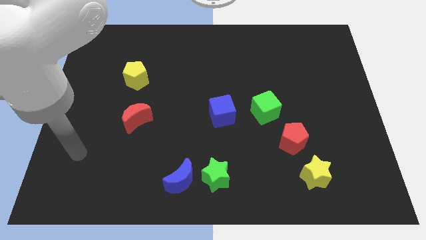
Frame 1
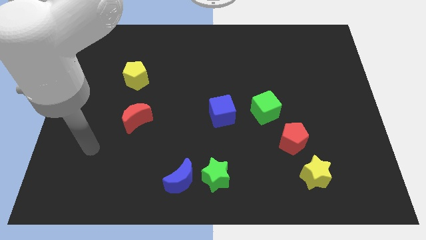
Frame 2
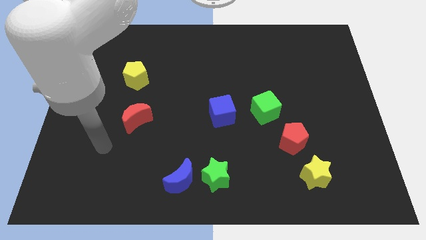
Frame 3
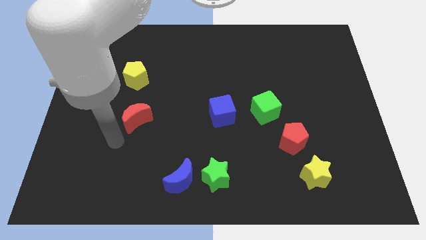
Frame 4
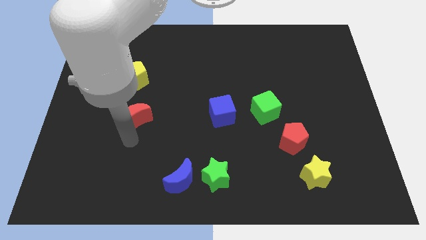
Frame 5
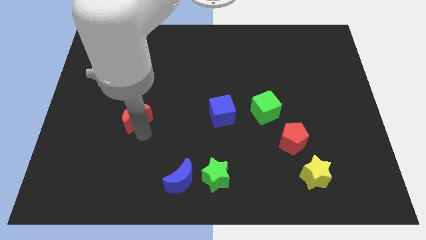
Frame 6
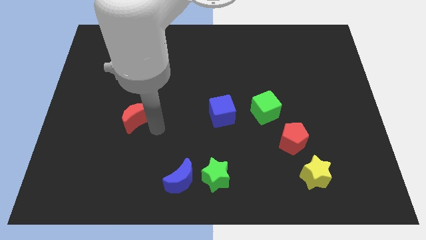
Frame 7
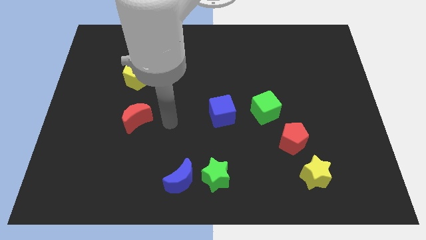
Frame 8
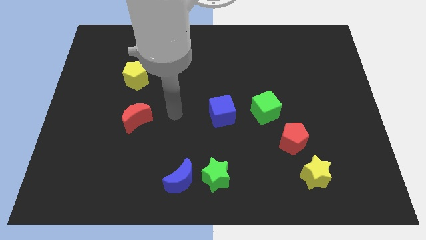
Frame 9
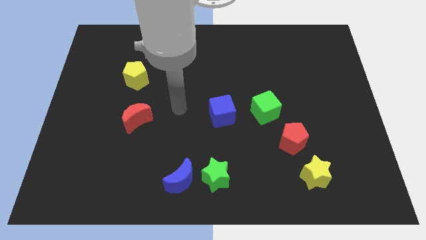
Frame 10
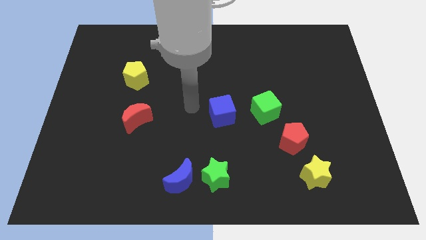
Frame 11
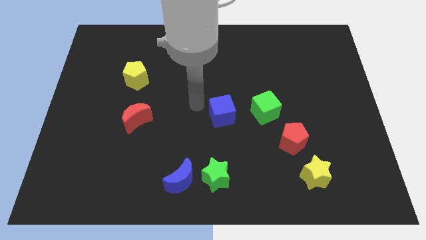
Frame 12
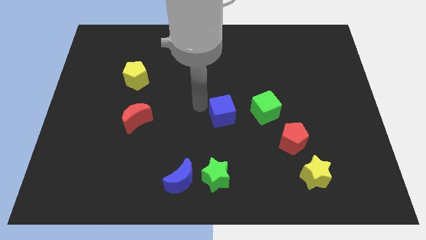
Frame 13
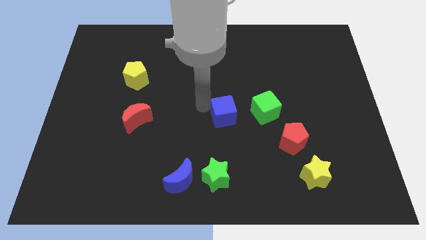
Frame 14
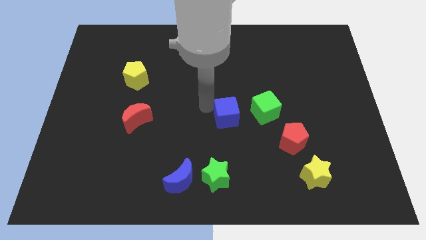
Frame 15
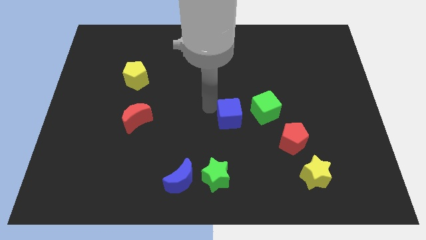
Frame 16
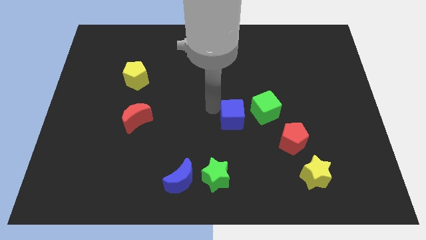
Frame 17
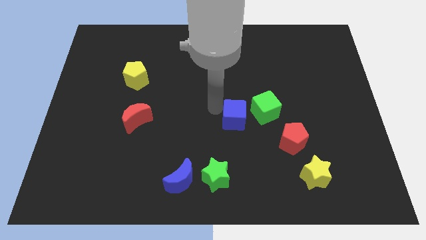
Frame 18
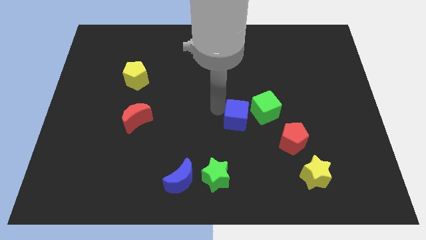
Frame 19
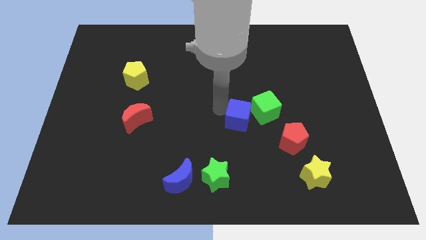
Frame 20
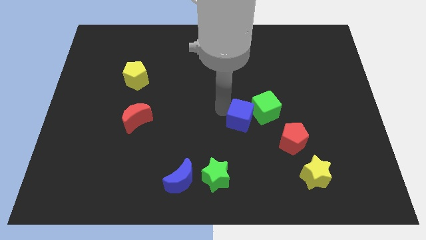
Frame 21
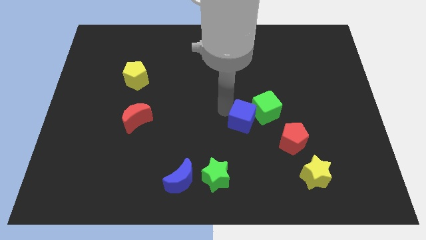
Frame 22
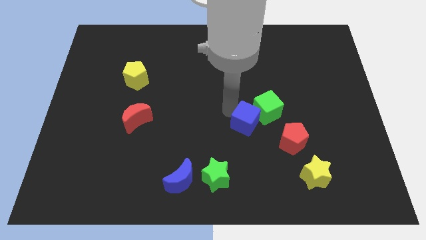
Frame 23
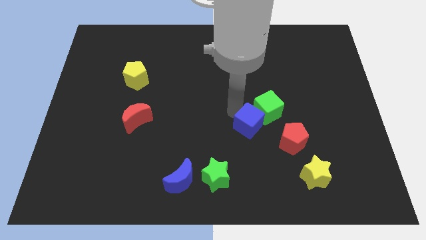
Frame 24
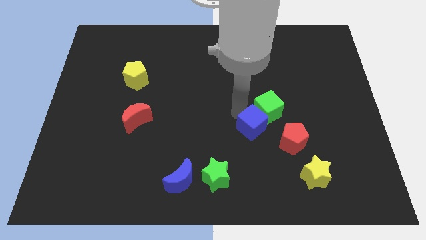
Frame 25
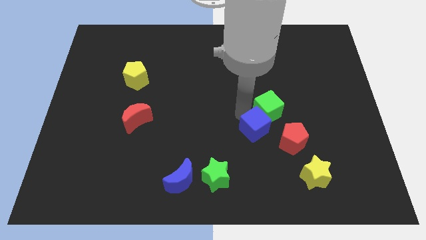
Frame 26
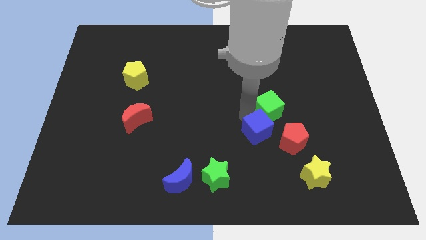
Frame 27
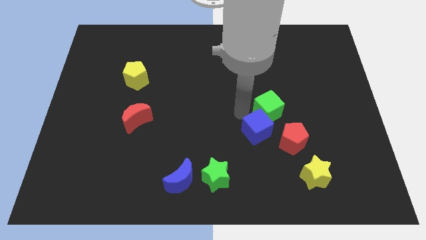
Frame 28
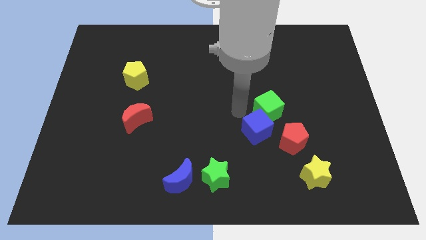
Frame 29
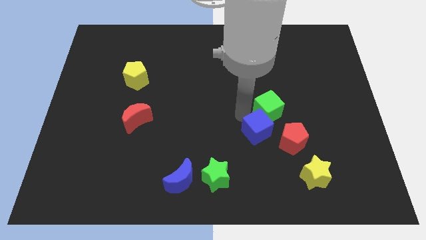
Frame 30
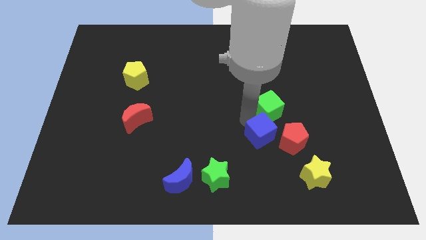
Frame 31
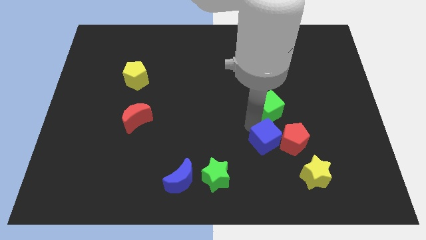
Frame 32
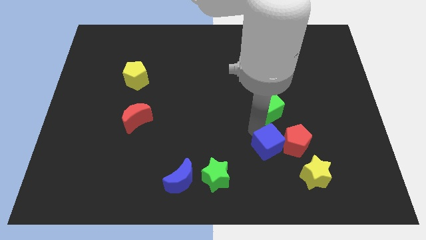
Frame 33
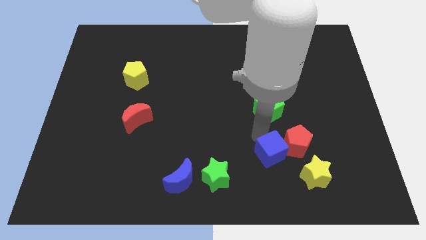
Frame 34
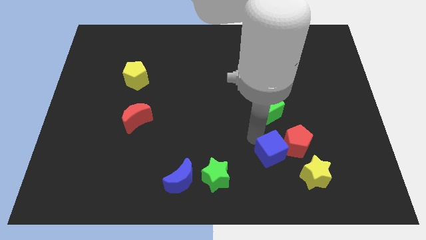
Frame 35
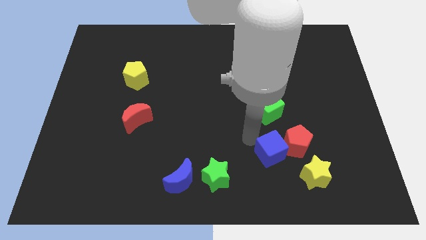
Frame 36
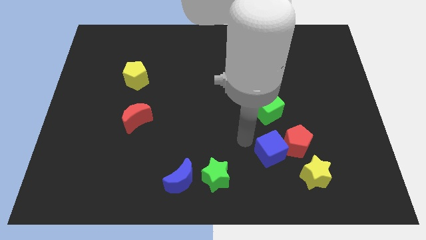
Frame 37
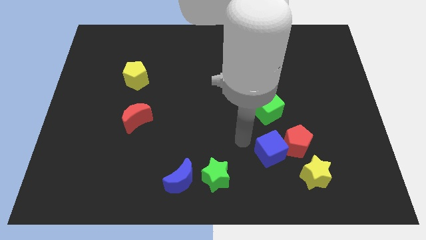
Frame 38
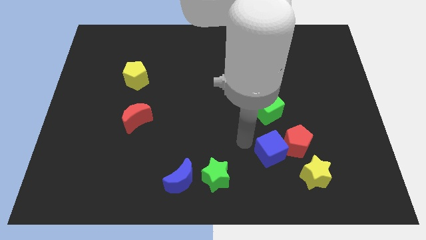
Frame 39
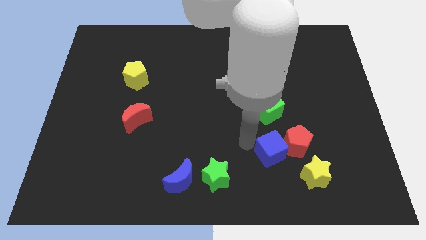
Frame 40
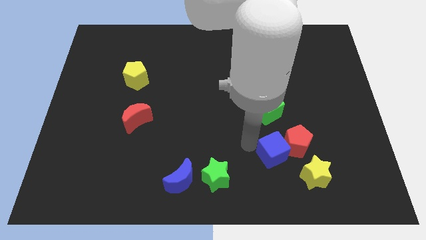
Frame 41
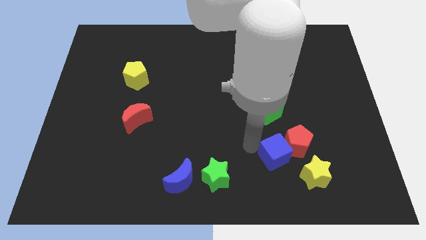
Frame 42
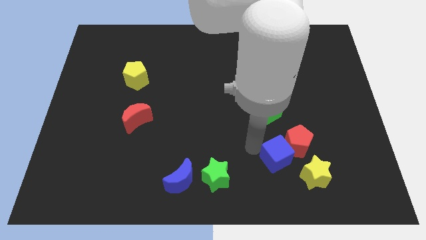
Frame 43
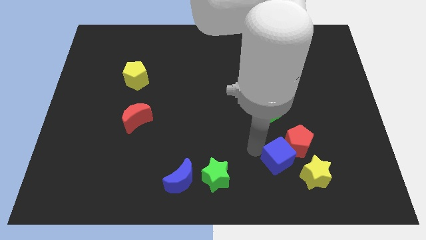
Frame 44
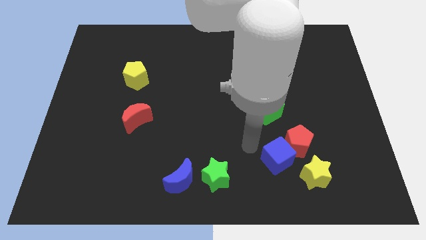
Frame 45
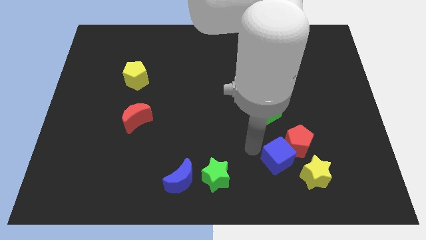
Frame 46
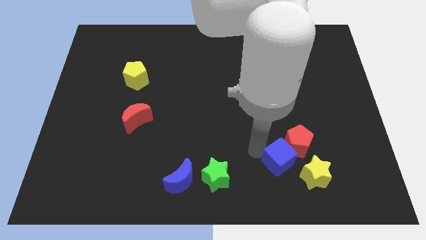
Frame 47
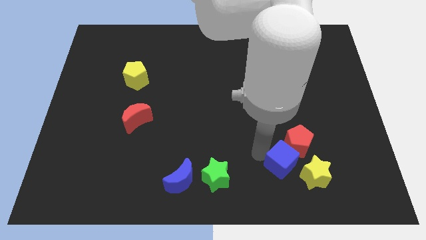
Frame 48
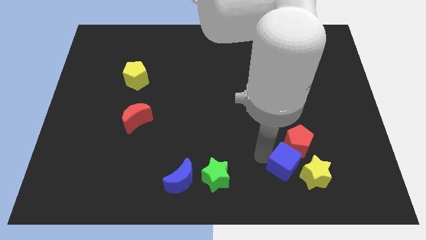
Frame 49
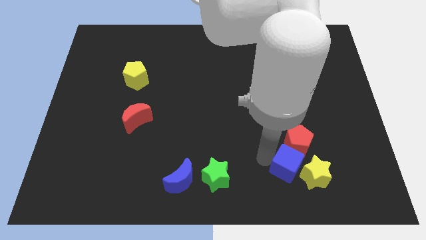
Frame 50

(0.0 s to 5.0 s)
slide the blue cube close to the yellow star

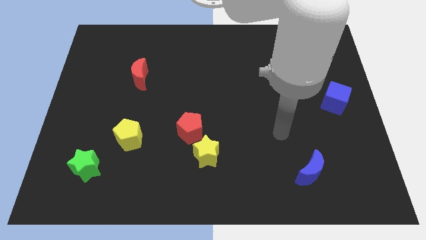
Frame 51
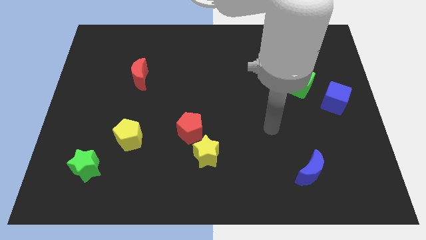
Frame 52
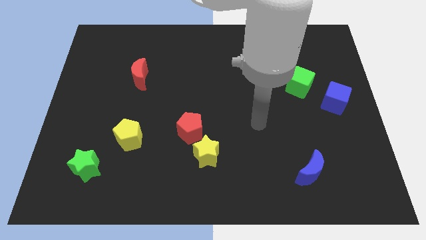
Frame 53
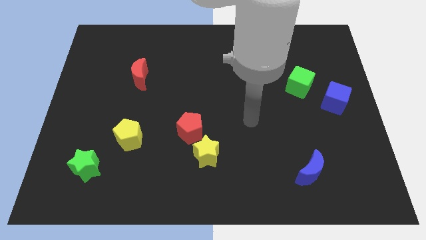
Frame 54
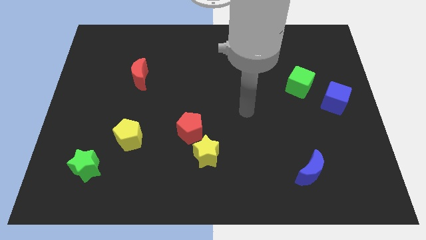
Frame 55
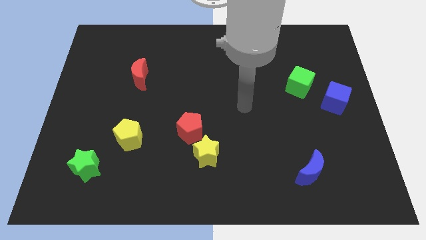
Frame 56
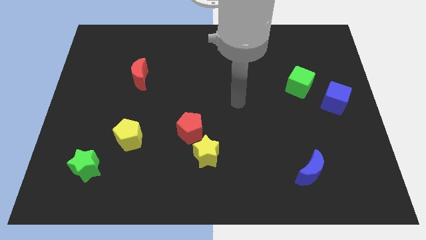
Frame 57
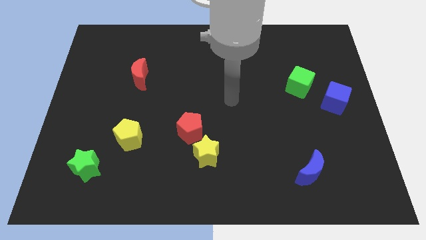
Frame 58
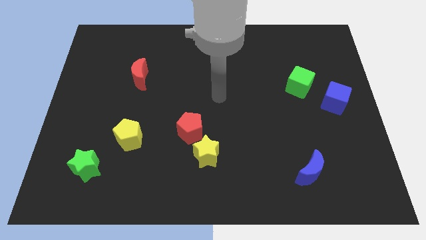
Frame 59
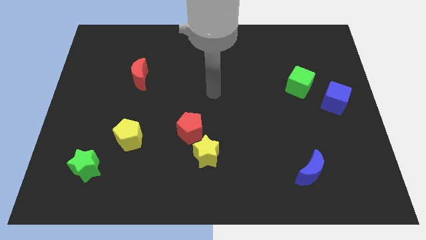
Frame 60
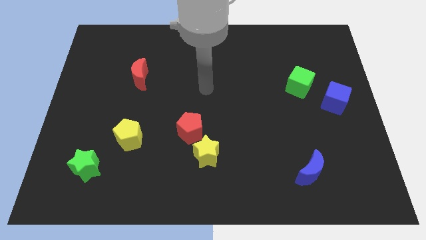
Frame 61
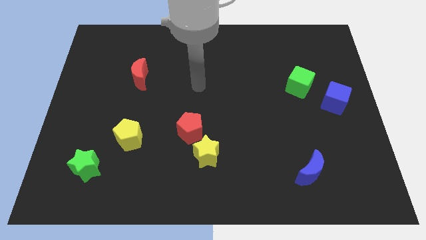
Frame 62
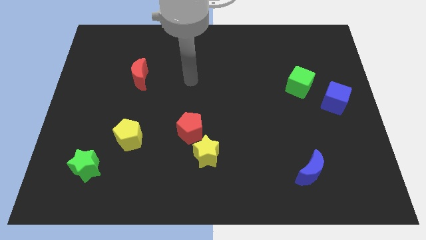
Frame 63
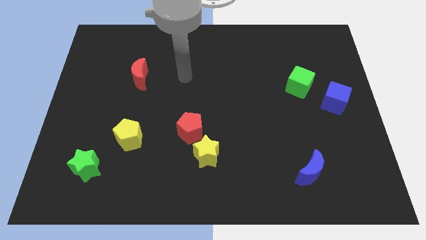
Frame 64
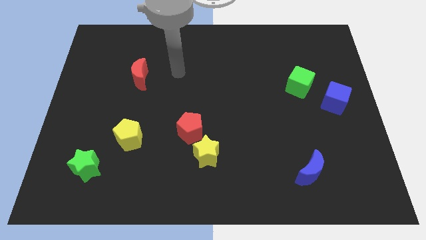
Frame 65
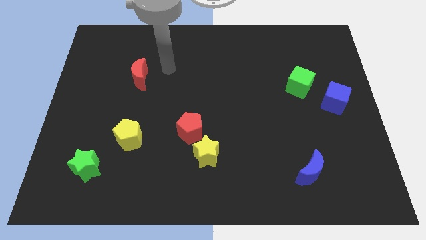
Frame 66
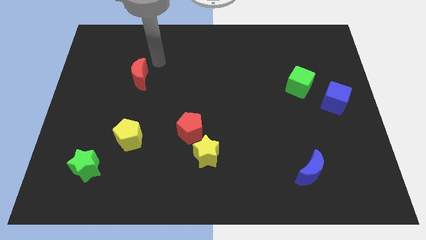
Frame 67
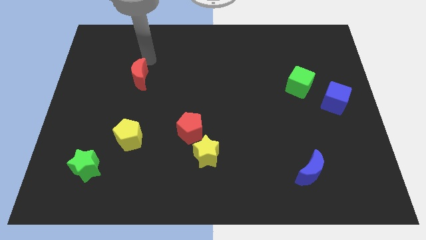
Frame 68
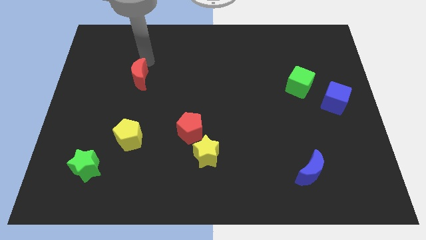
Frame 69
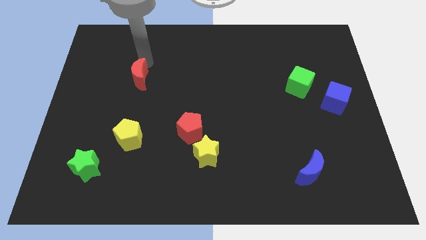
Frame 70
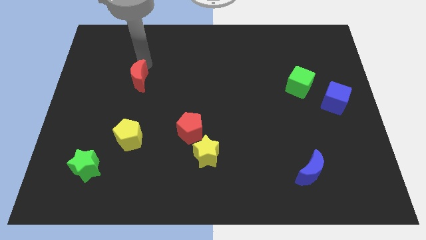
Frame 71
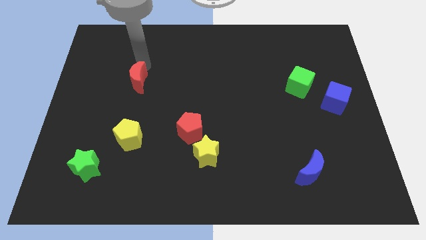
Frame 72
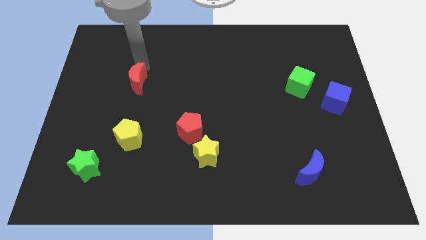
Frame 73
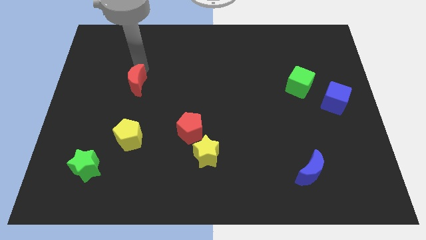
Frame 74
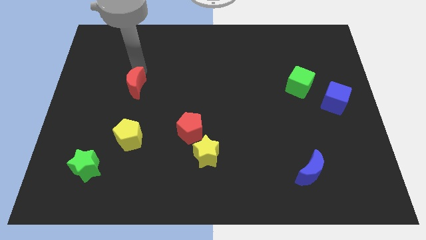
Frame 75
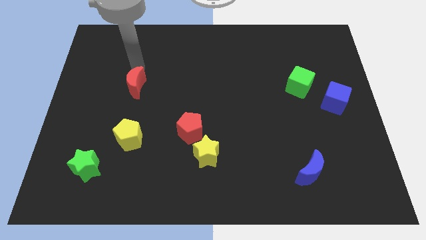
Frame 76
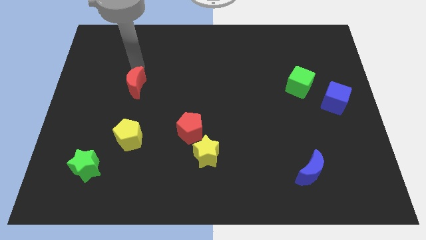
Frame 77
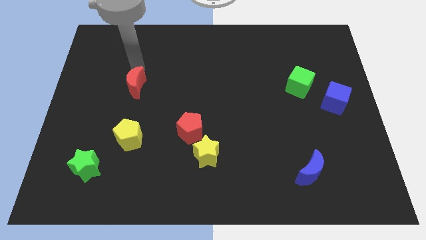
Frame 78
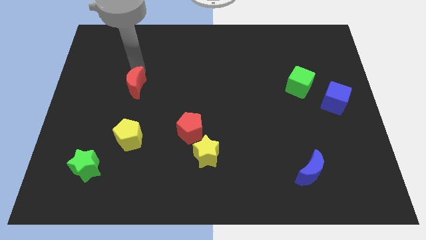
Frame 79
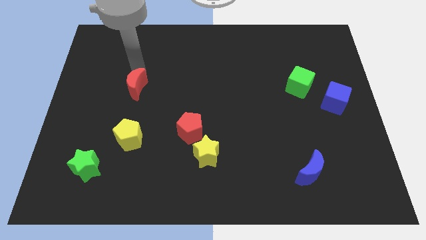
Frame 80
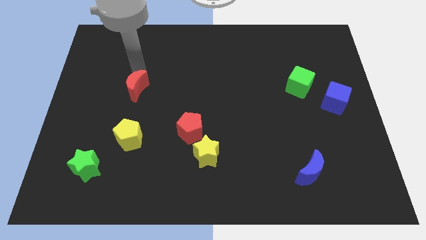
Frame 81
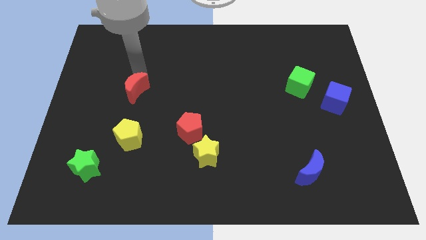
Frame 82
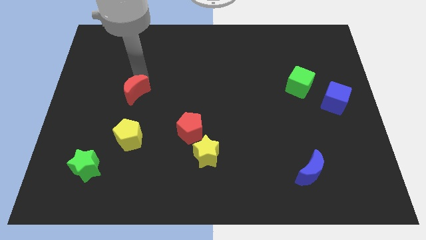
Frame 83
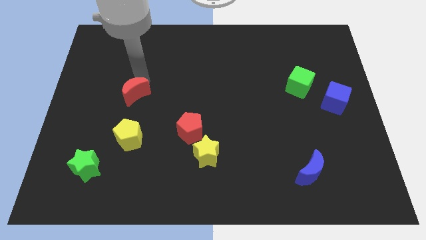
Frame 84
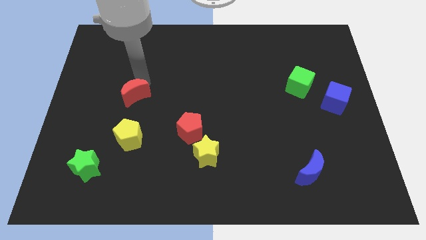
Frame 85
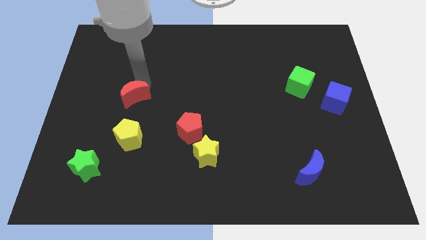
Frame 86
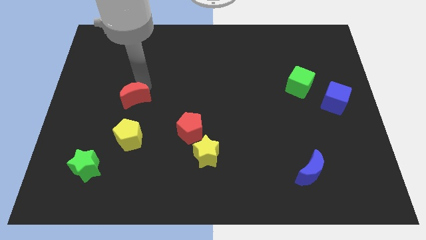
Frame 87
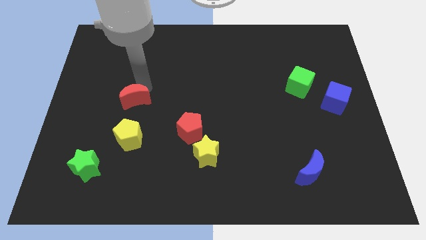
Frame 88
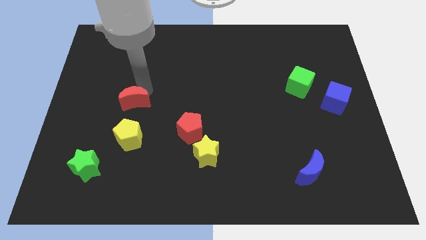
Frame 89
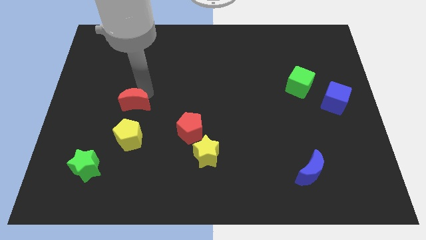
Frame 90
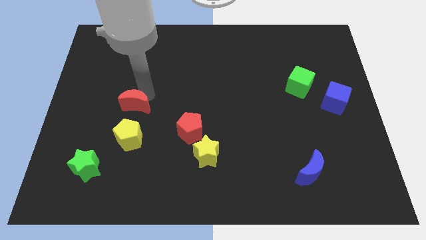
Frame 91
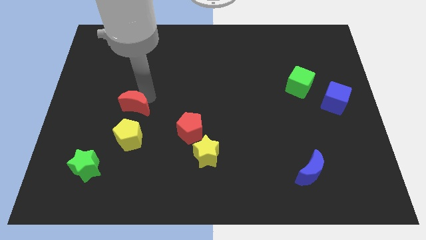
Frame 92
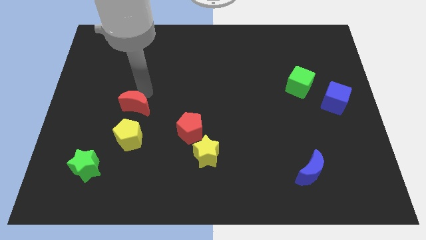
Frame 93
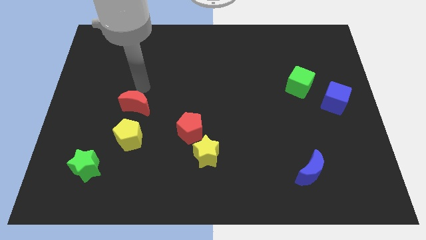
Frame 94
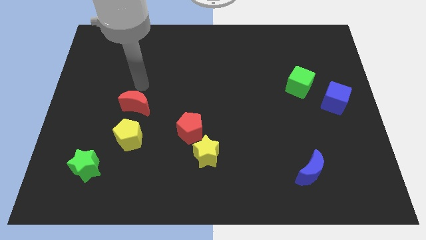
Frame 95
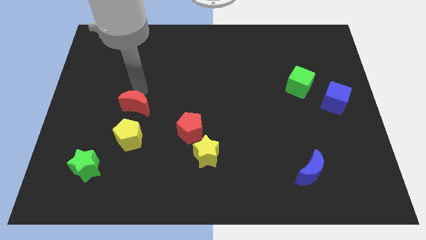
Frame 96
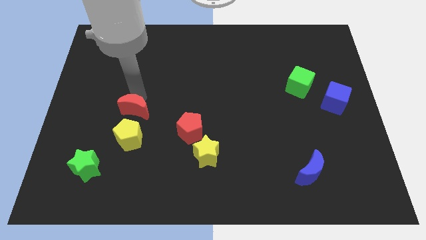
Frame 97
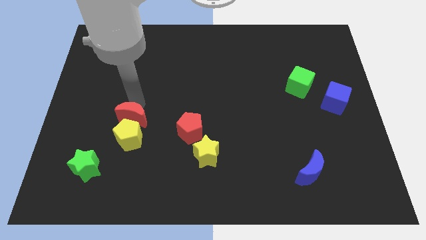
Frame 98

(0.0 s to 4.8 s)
slide the red moon next to the yellow pentagon
